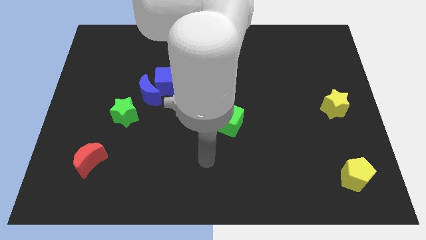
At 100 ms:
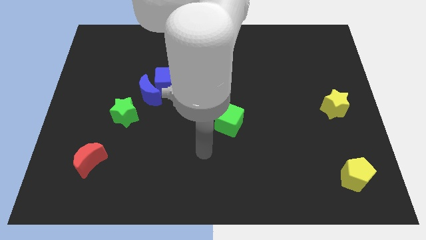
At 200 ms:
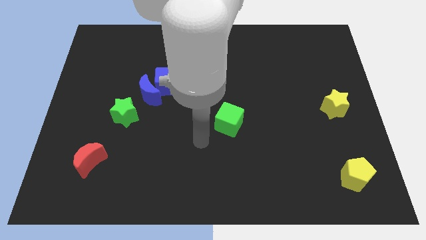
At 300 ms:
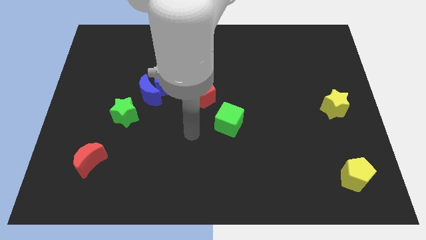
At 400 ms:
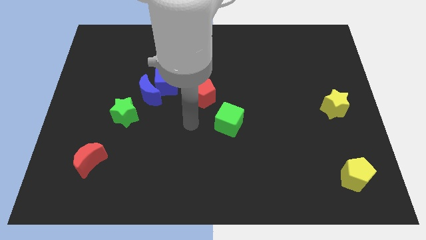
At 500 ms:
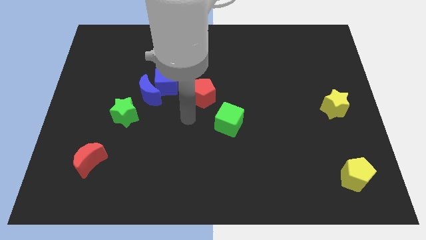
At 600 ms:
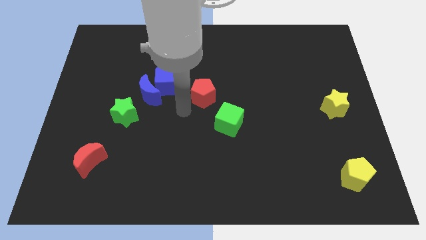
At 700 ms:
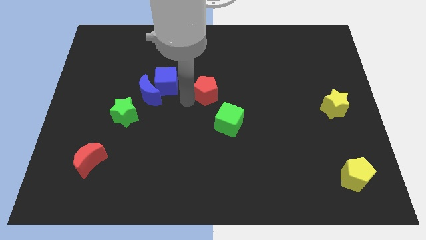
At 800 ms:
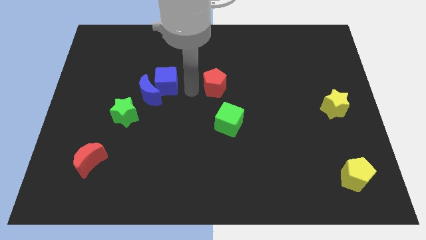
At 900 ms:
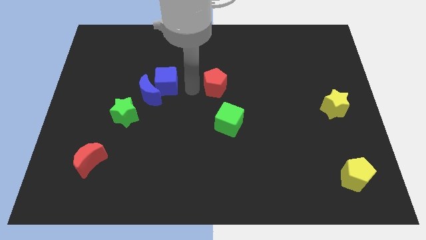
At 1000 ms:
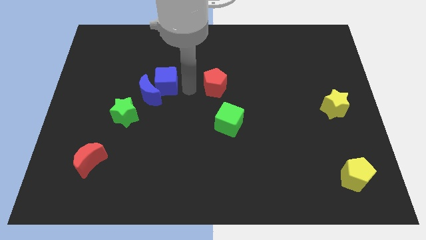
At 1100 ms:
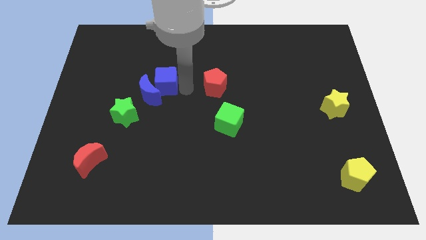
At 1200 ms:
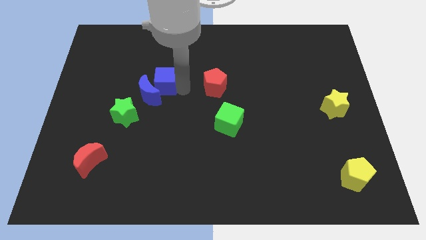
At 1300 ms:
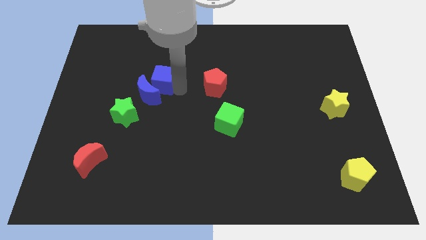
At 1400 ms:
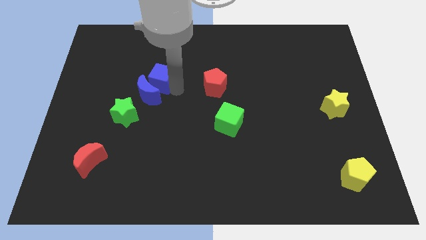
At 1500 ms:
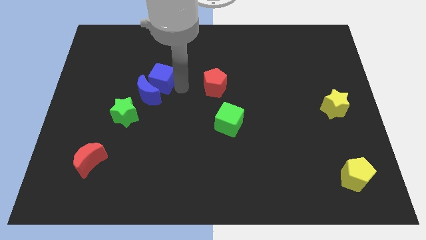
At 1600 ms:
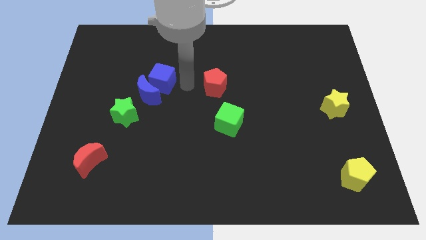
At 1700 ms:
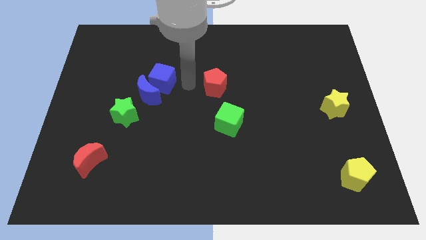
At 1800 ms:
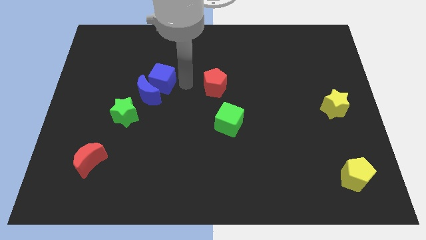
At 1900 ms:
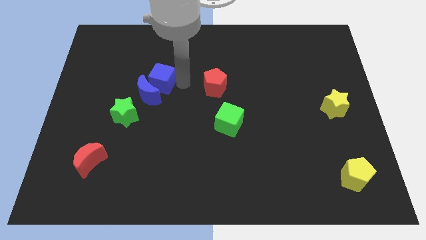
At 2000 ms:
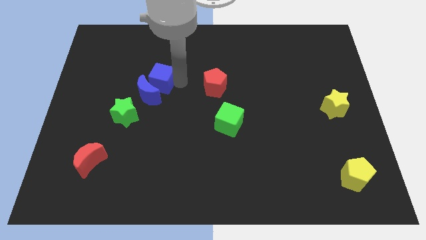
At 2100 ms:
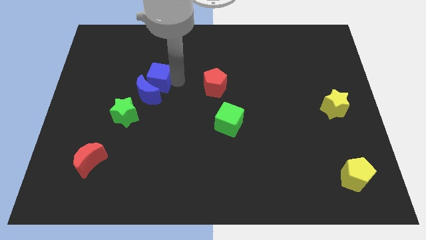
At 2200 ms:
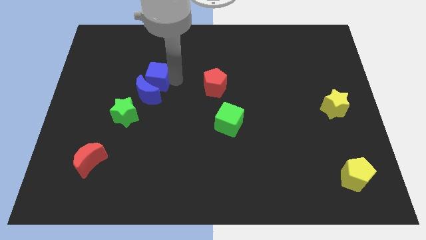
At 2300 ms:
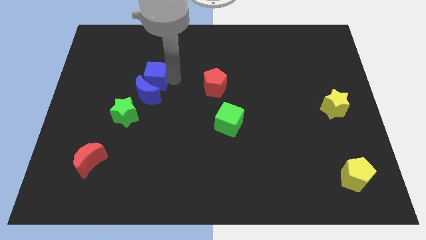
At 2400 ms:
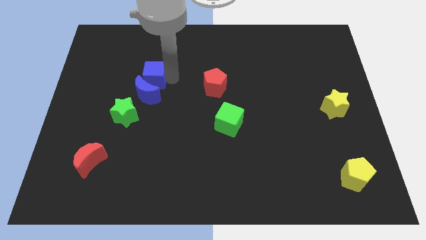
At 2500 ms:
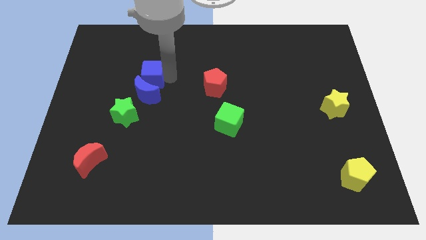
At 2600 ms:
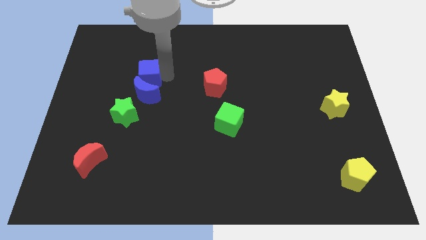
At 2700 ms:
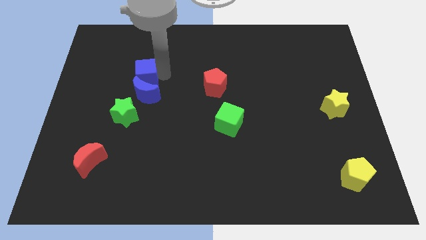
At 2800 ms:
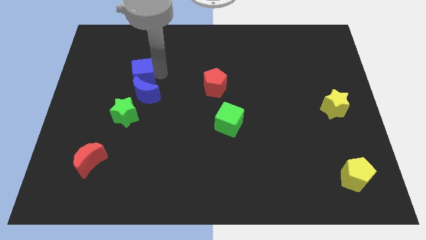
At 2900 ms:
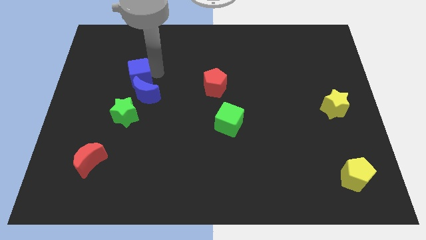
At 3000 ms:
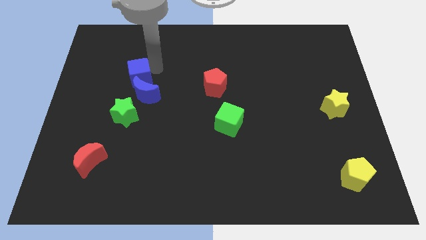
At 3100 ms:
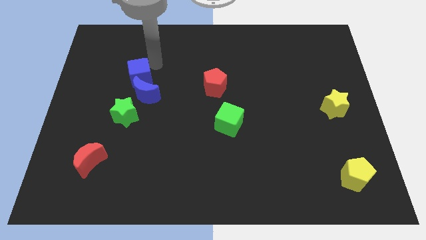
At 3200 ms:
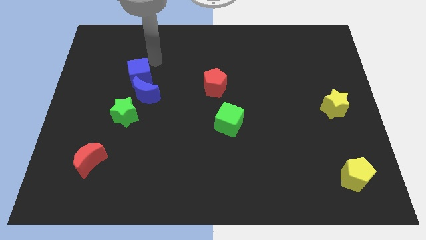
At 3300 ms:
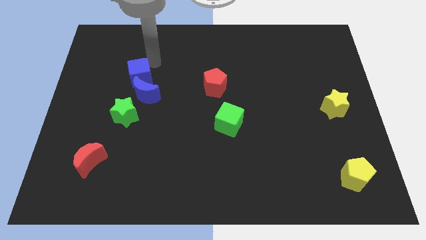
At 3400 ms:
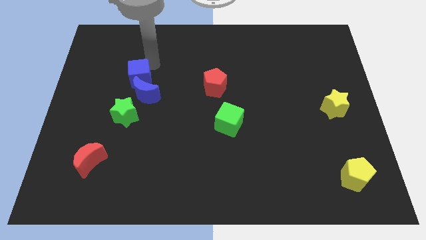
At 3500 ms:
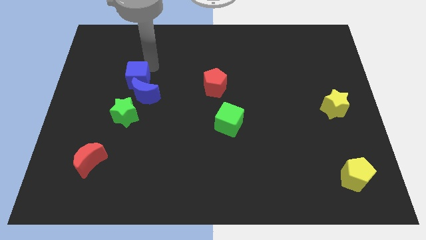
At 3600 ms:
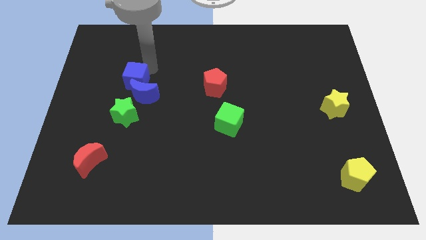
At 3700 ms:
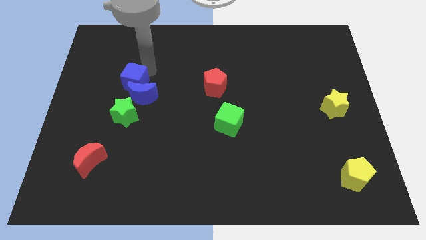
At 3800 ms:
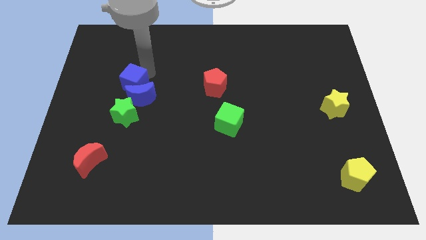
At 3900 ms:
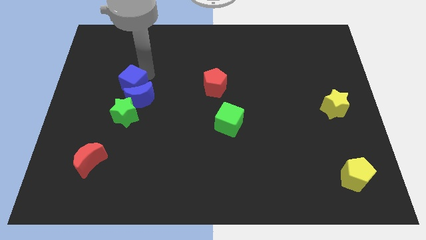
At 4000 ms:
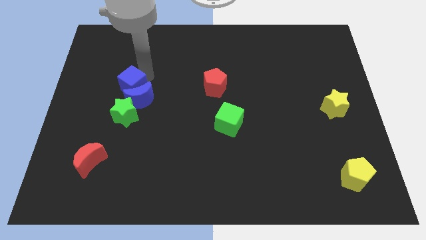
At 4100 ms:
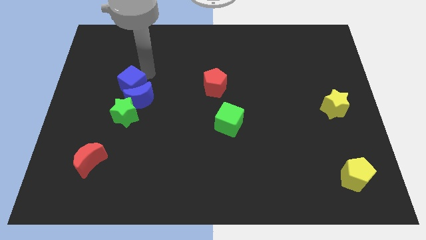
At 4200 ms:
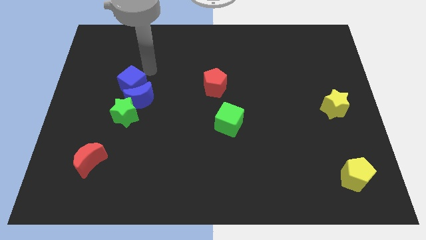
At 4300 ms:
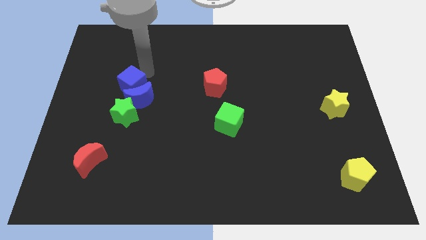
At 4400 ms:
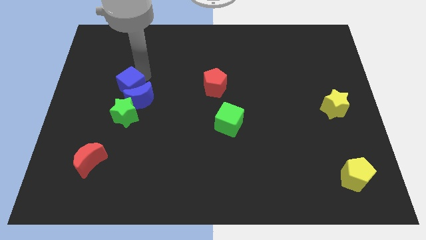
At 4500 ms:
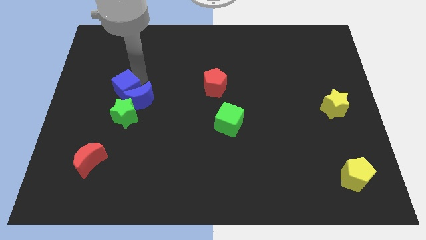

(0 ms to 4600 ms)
slide the blue cube downwards and to the left diagonally slightly

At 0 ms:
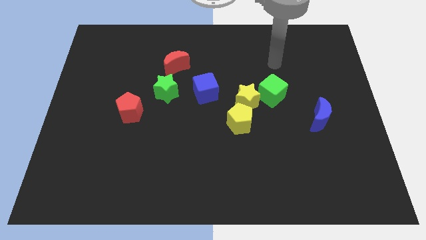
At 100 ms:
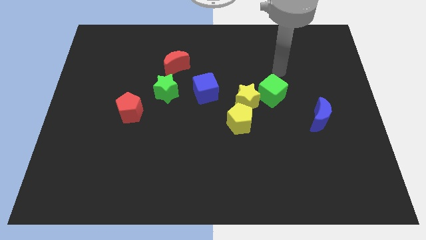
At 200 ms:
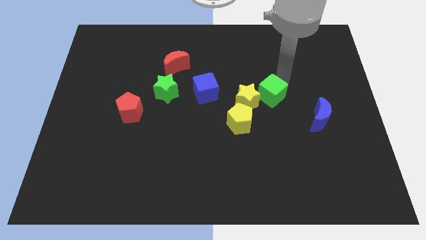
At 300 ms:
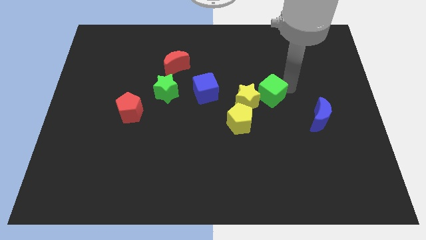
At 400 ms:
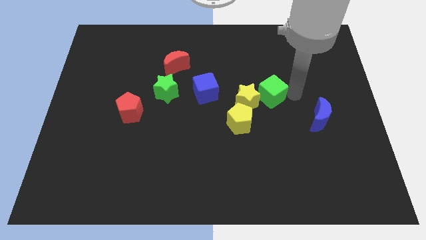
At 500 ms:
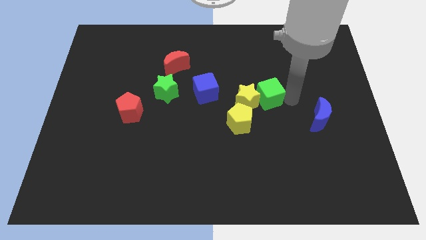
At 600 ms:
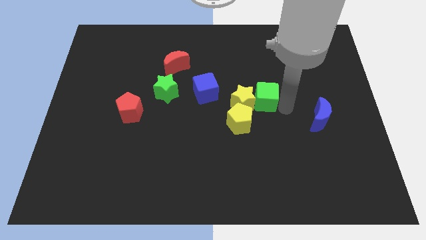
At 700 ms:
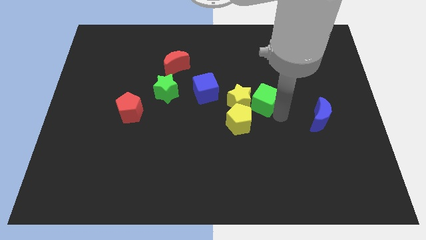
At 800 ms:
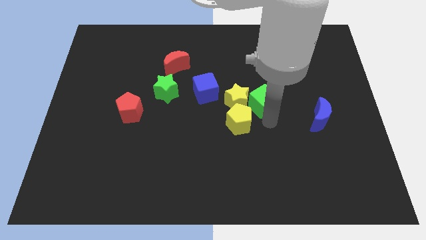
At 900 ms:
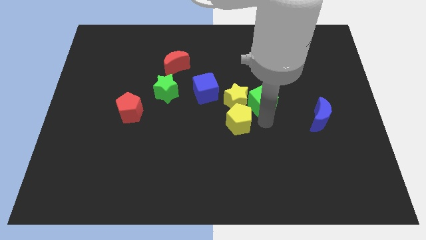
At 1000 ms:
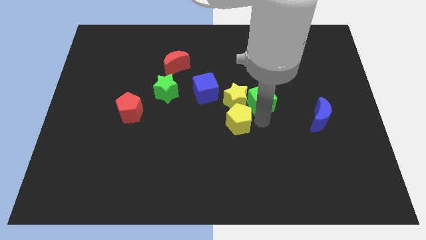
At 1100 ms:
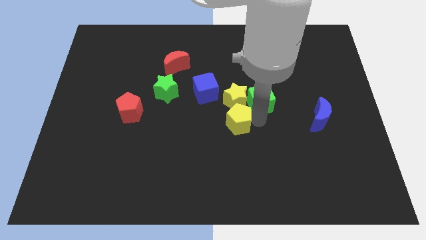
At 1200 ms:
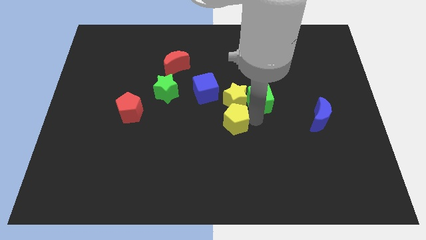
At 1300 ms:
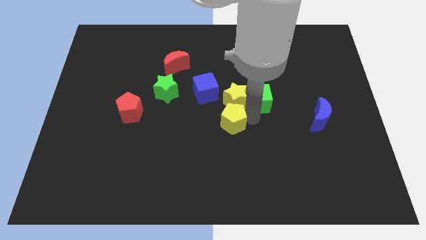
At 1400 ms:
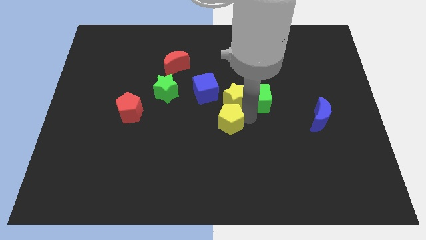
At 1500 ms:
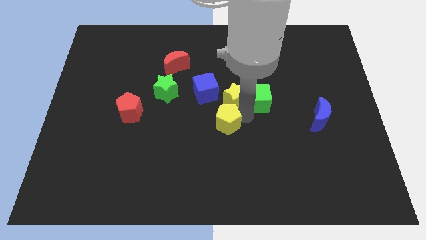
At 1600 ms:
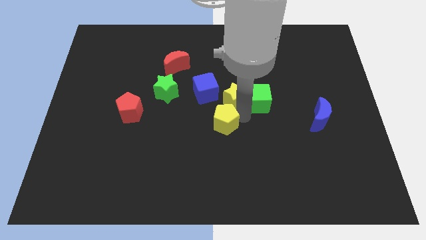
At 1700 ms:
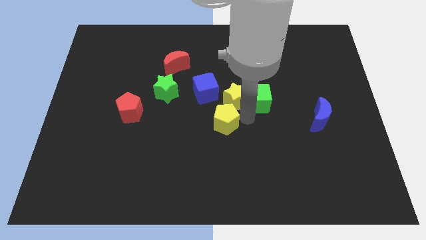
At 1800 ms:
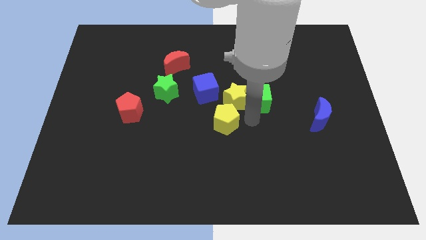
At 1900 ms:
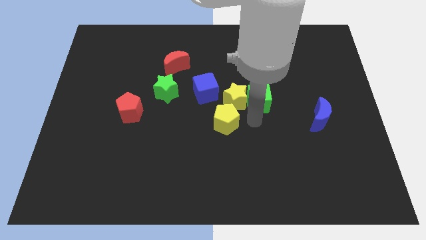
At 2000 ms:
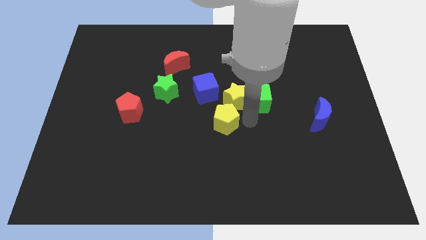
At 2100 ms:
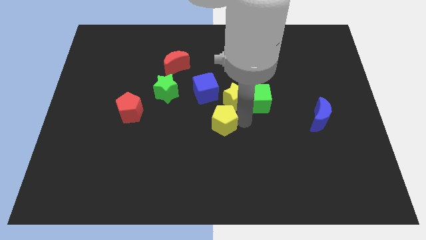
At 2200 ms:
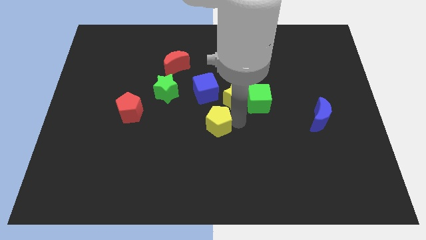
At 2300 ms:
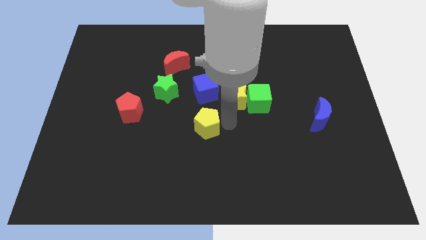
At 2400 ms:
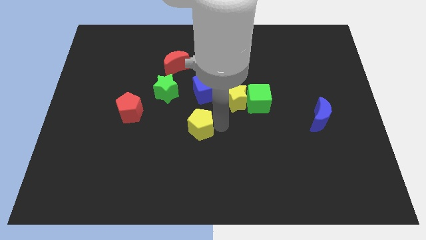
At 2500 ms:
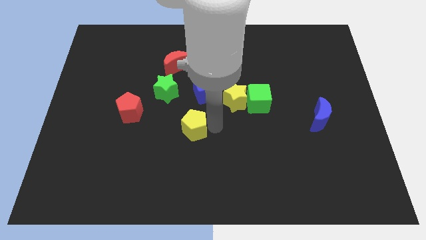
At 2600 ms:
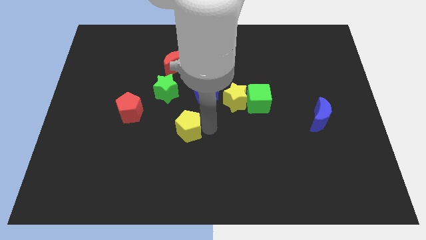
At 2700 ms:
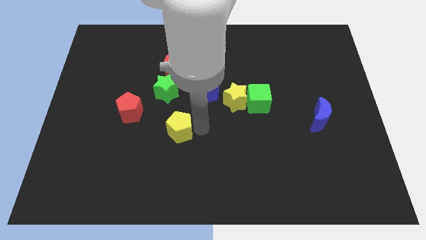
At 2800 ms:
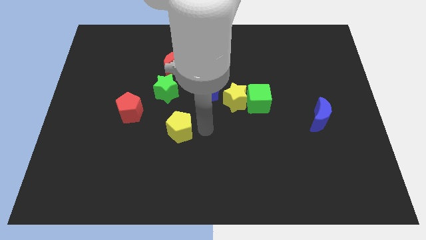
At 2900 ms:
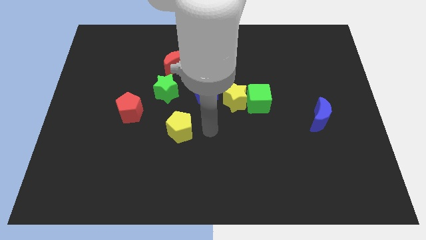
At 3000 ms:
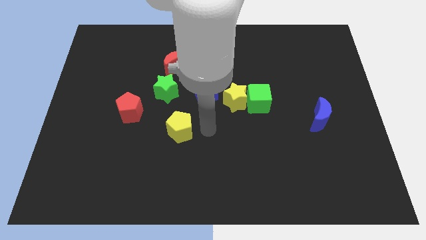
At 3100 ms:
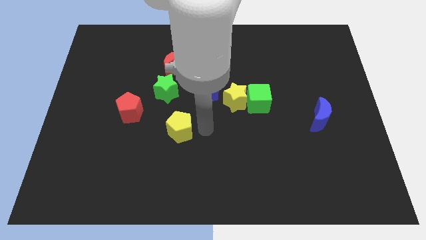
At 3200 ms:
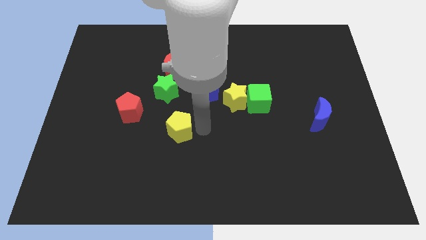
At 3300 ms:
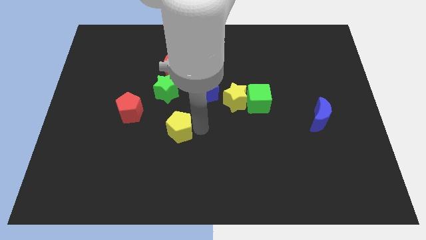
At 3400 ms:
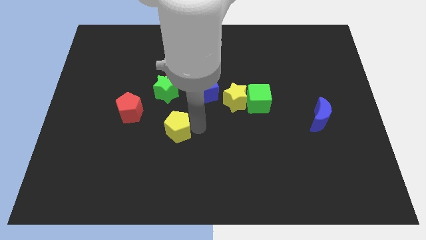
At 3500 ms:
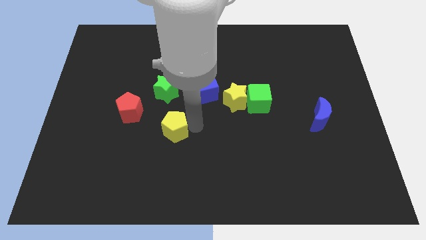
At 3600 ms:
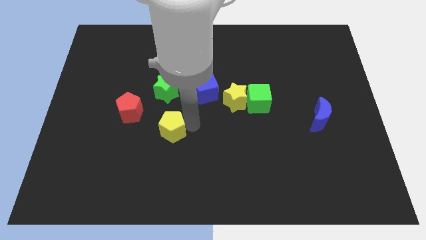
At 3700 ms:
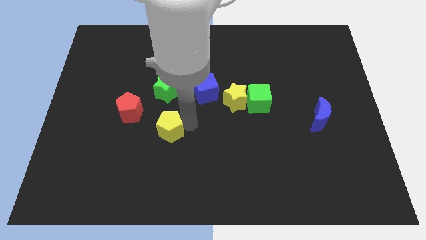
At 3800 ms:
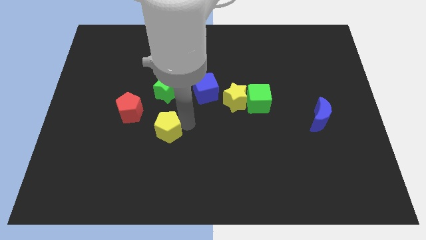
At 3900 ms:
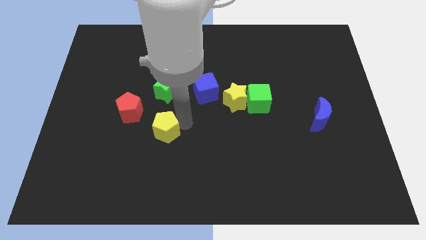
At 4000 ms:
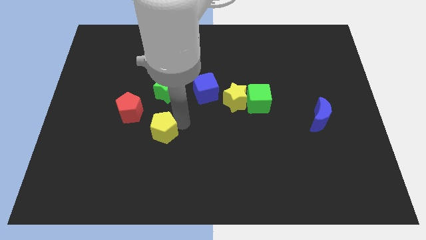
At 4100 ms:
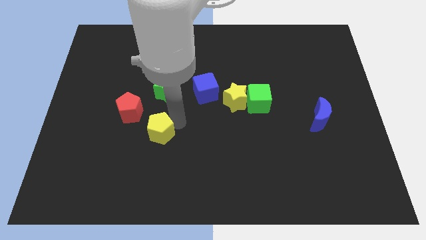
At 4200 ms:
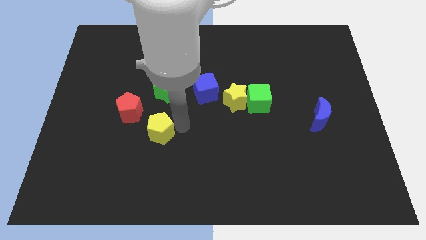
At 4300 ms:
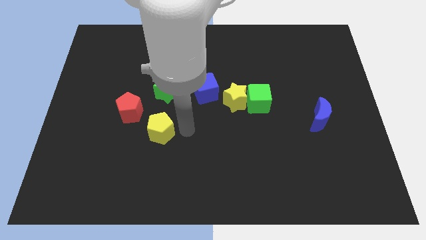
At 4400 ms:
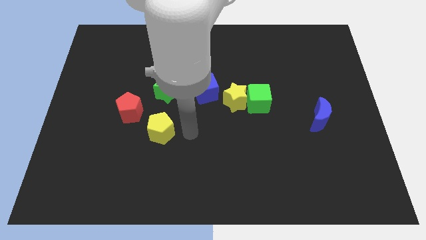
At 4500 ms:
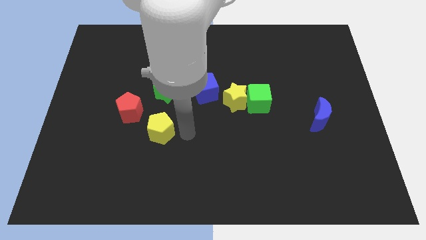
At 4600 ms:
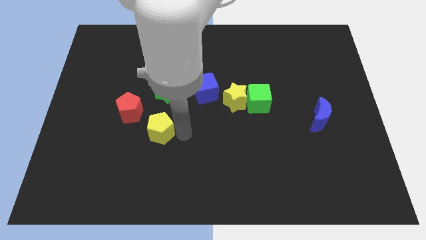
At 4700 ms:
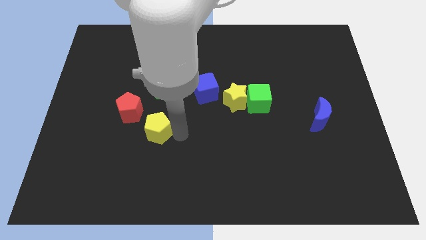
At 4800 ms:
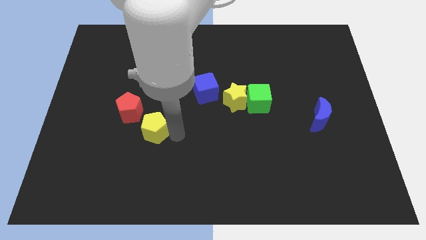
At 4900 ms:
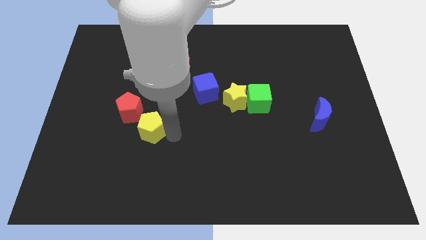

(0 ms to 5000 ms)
move the yellow pentagon to the left
